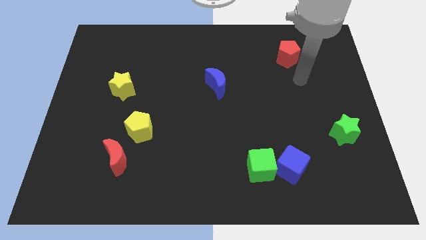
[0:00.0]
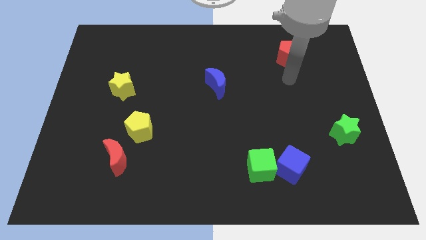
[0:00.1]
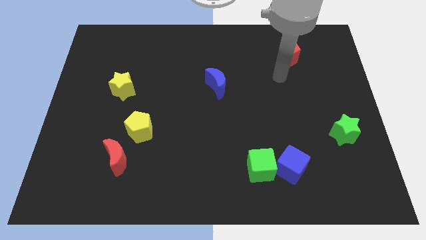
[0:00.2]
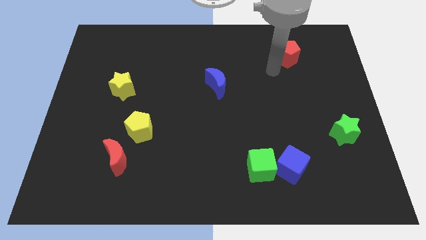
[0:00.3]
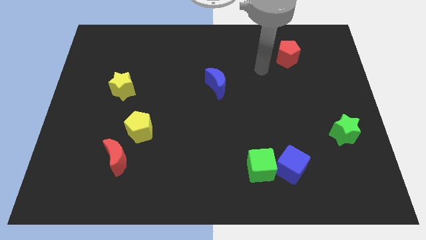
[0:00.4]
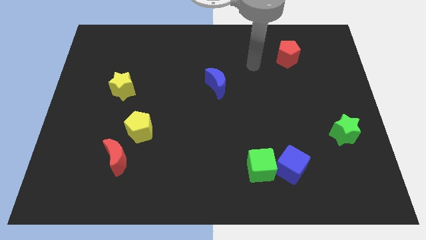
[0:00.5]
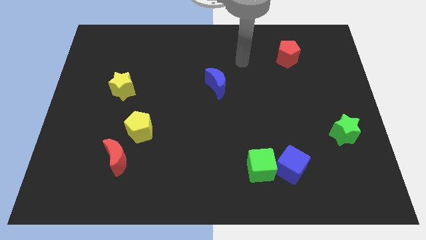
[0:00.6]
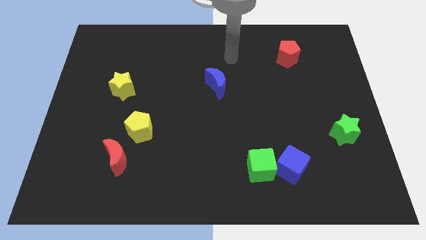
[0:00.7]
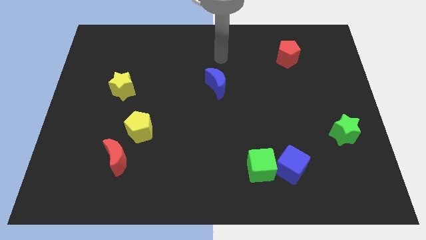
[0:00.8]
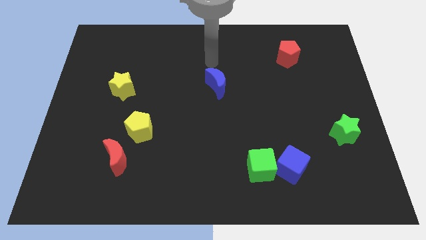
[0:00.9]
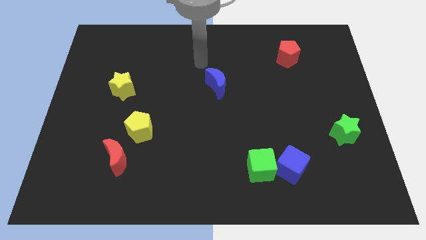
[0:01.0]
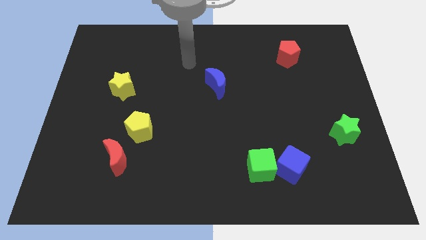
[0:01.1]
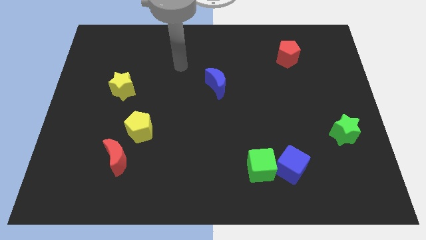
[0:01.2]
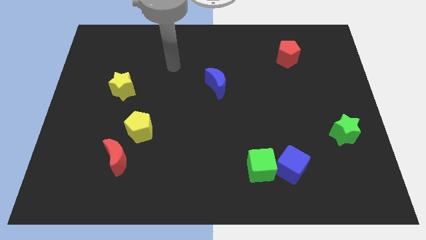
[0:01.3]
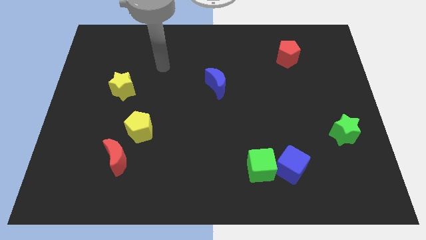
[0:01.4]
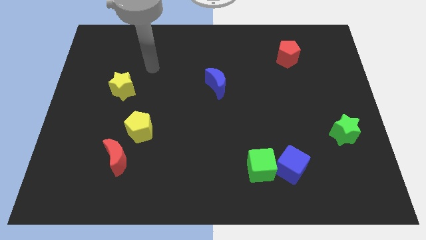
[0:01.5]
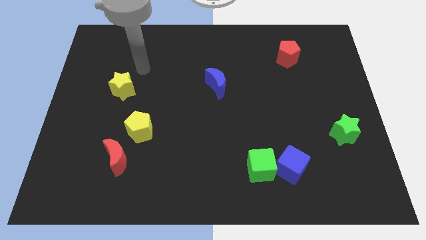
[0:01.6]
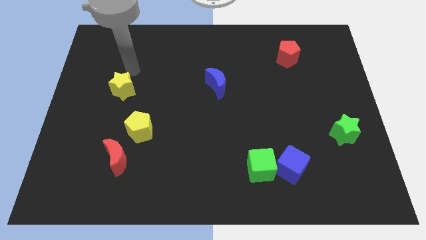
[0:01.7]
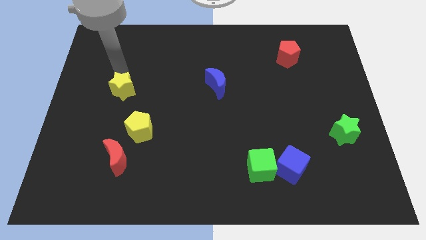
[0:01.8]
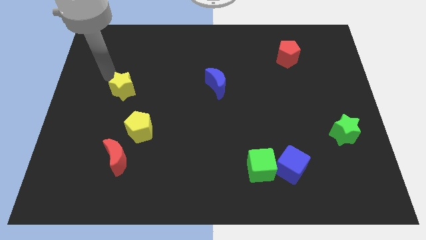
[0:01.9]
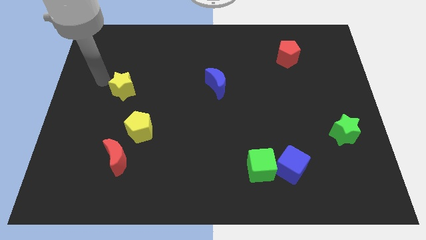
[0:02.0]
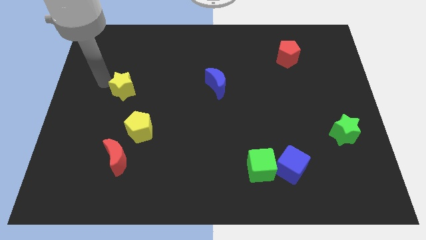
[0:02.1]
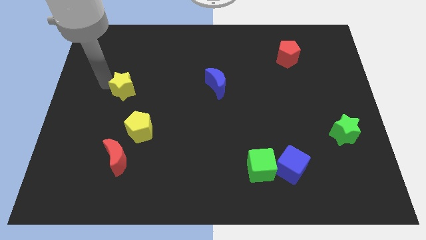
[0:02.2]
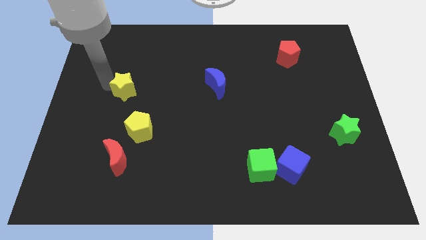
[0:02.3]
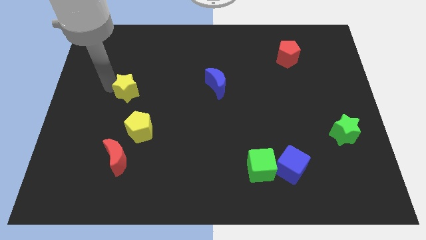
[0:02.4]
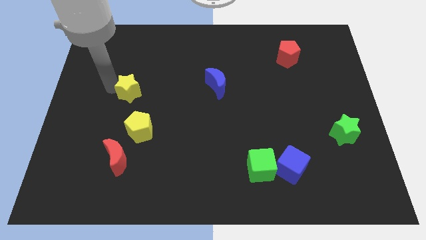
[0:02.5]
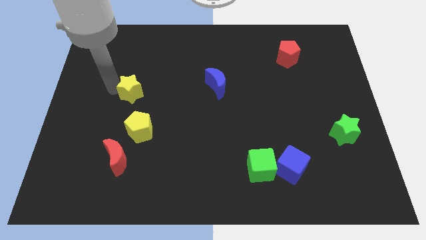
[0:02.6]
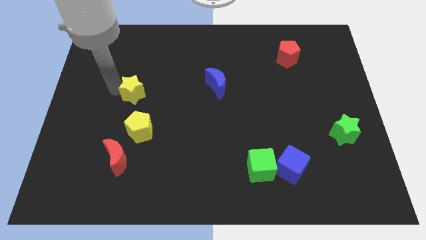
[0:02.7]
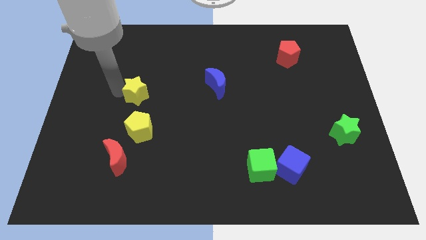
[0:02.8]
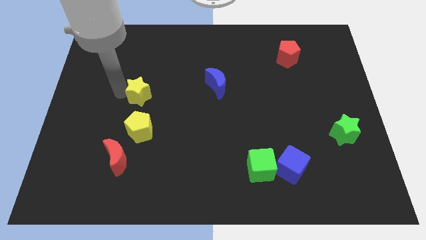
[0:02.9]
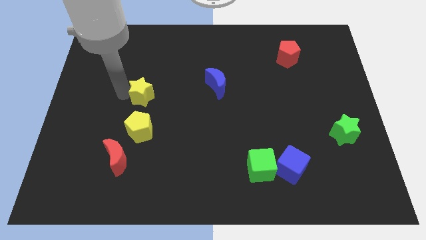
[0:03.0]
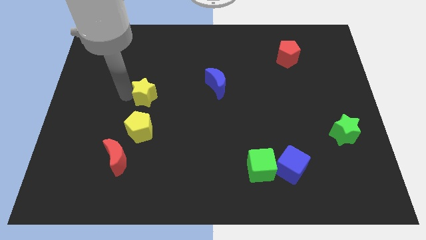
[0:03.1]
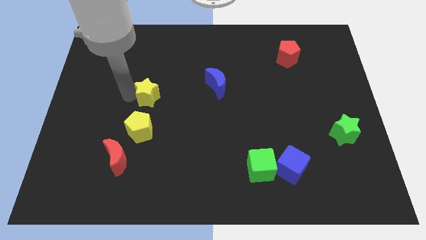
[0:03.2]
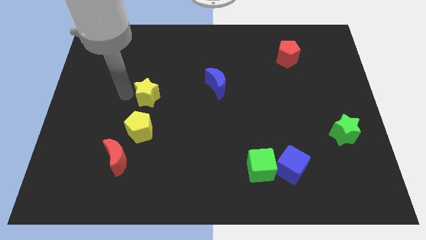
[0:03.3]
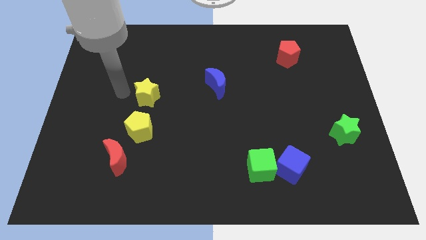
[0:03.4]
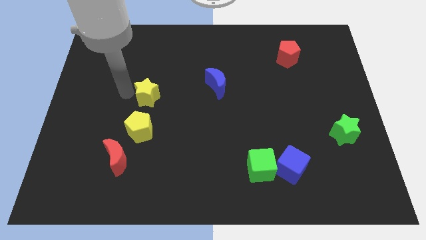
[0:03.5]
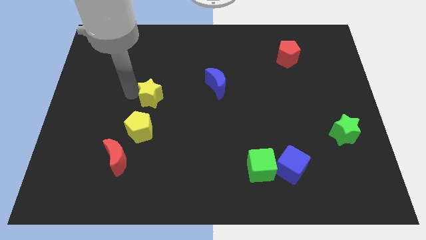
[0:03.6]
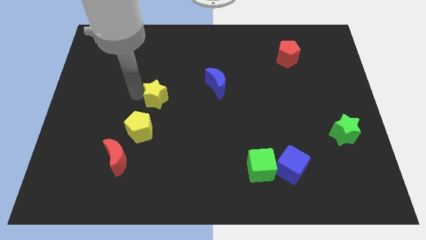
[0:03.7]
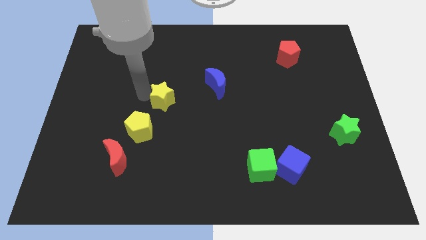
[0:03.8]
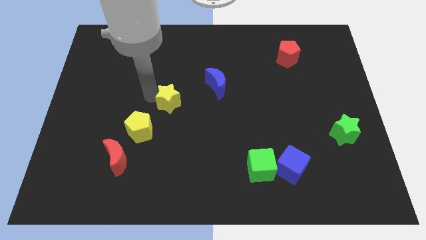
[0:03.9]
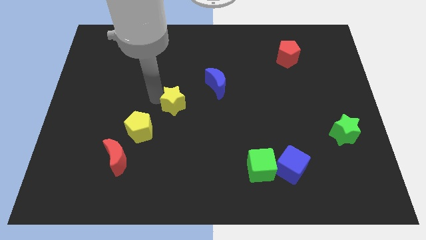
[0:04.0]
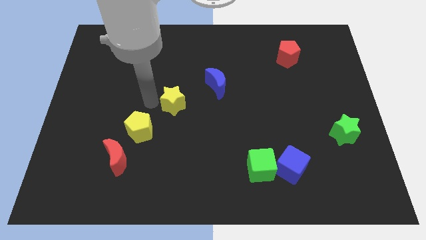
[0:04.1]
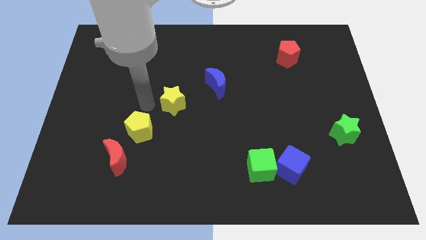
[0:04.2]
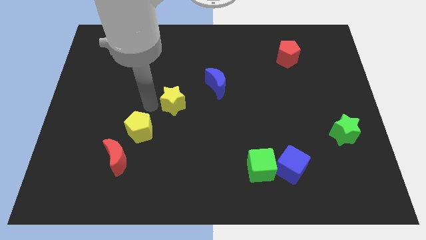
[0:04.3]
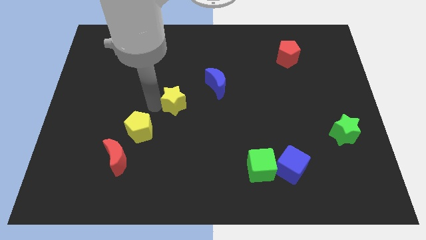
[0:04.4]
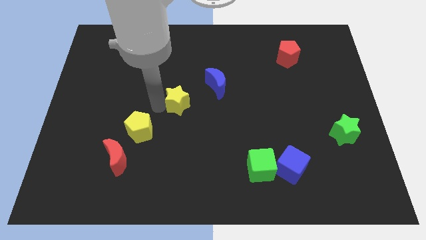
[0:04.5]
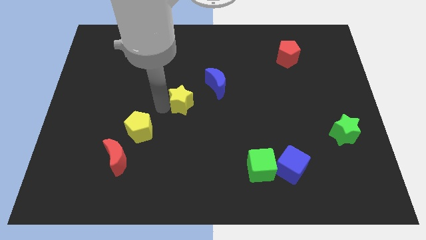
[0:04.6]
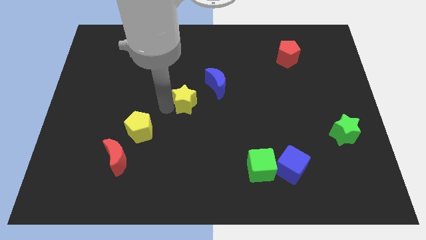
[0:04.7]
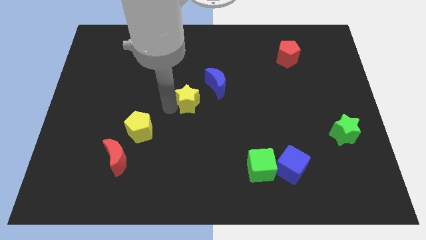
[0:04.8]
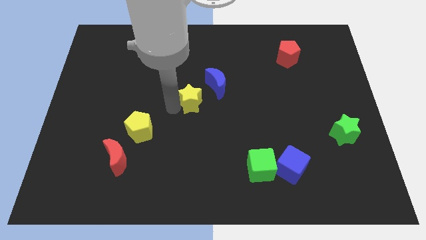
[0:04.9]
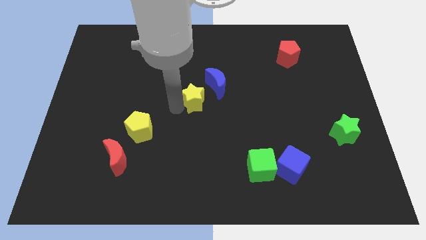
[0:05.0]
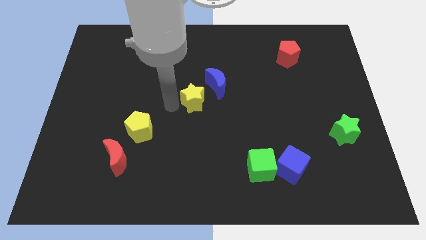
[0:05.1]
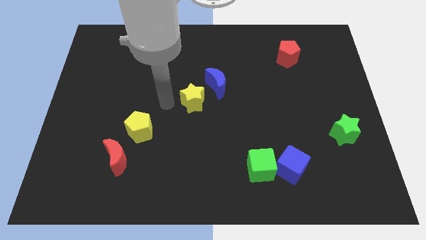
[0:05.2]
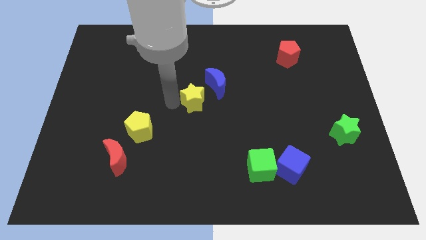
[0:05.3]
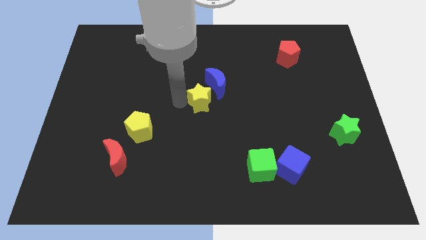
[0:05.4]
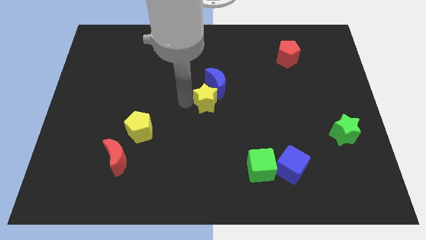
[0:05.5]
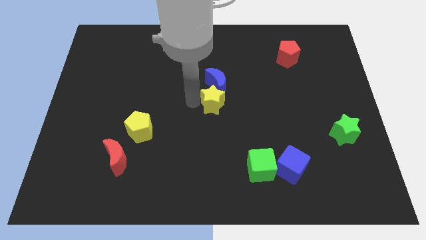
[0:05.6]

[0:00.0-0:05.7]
push the yellow star to the right

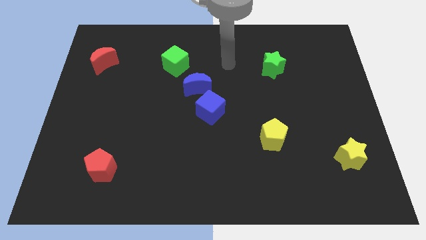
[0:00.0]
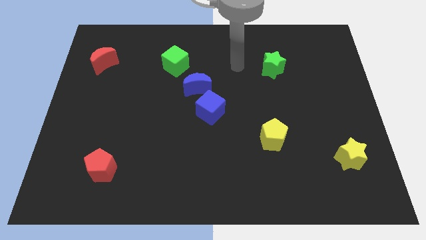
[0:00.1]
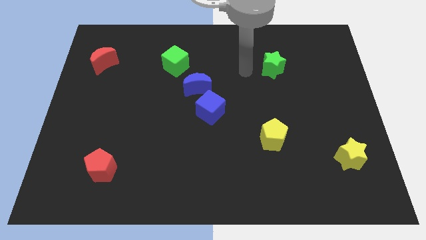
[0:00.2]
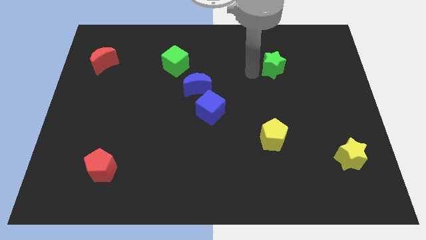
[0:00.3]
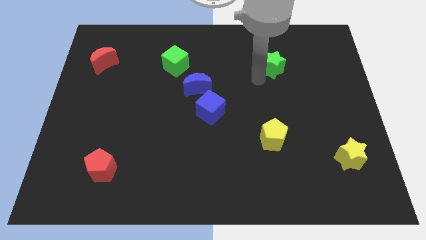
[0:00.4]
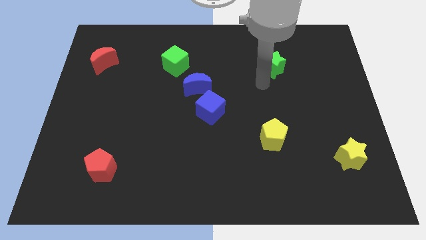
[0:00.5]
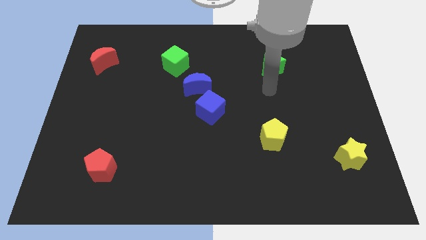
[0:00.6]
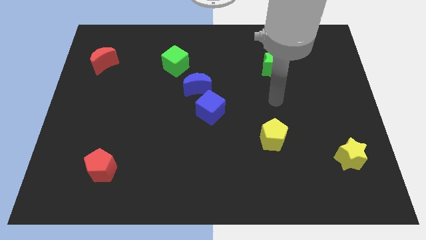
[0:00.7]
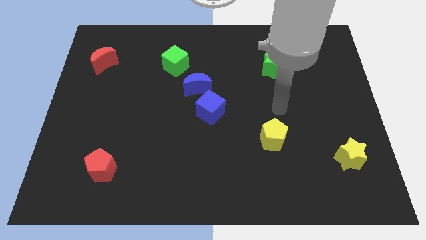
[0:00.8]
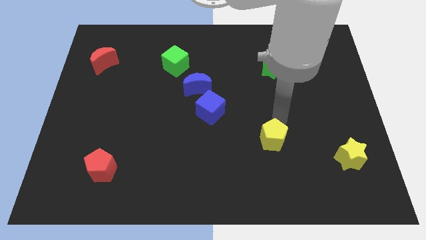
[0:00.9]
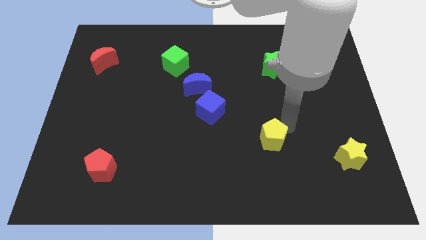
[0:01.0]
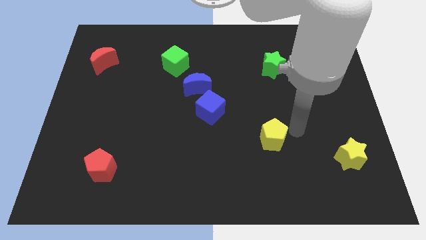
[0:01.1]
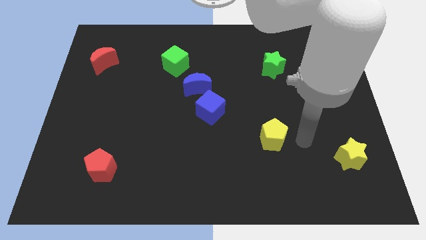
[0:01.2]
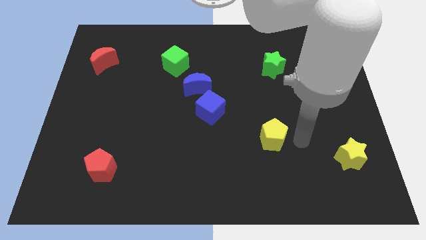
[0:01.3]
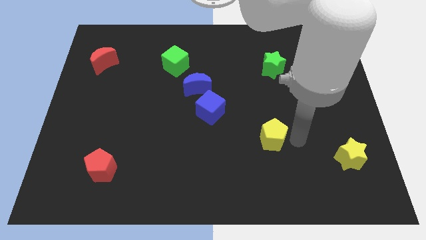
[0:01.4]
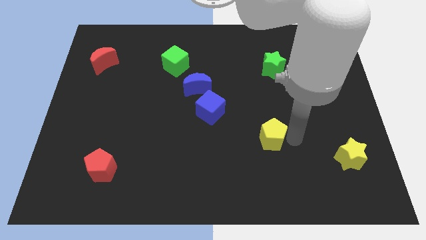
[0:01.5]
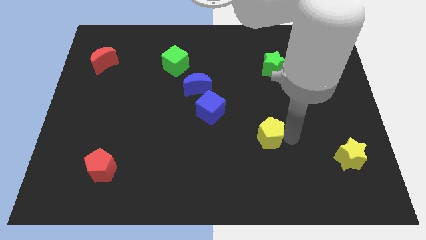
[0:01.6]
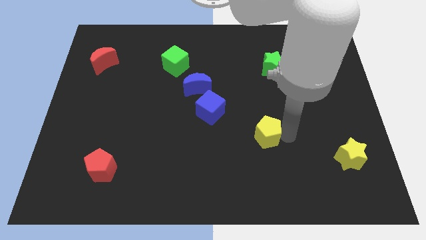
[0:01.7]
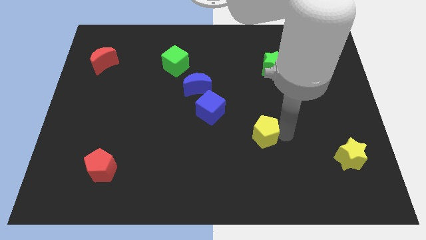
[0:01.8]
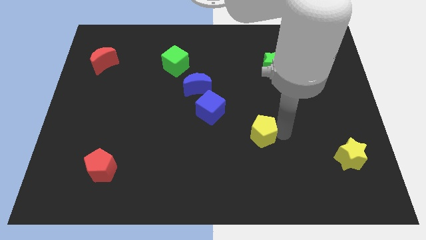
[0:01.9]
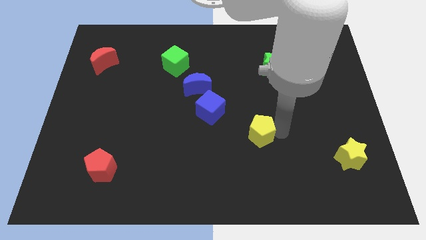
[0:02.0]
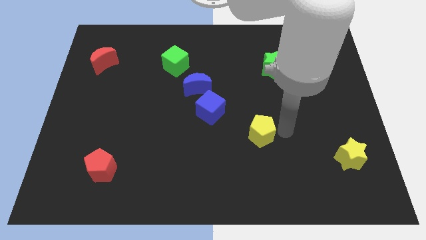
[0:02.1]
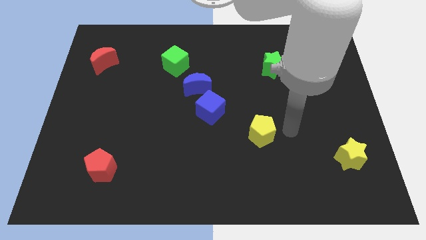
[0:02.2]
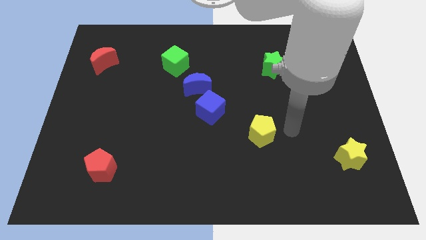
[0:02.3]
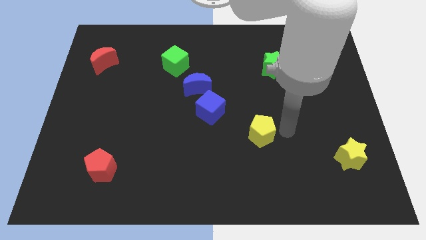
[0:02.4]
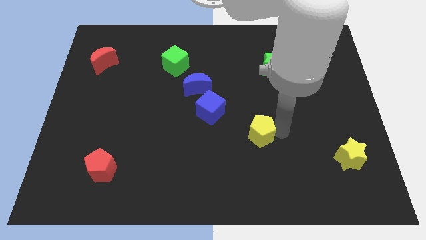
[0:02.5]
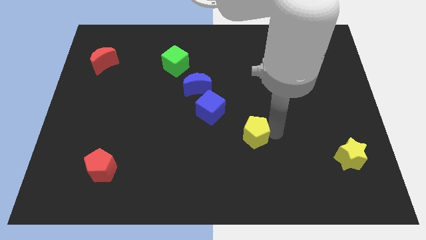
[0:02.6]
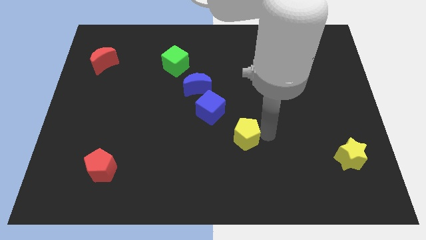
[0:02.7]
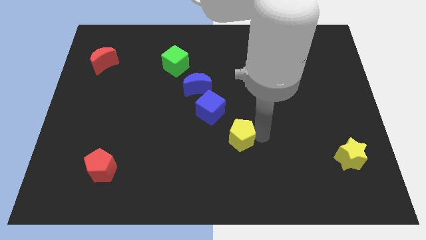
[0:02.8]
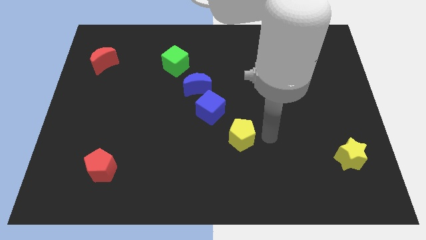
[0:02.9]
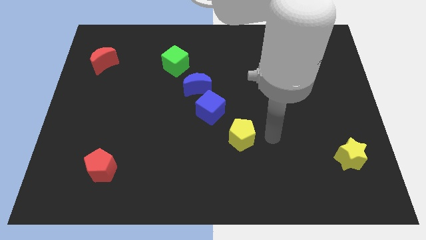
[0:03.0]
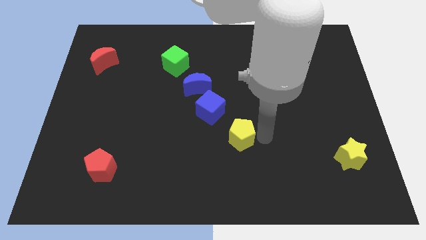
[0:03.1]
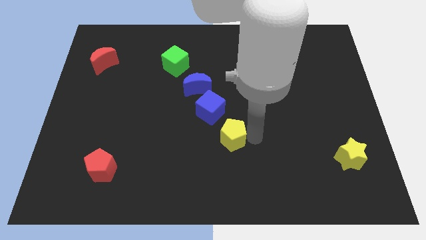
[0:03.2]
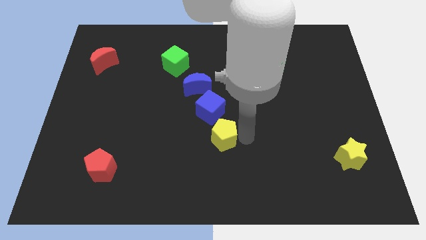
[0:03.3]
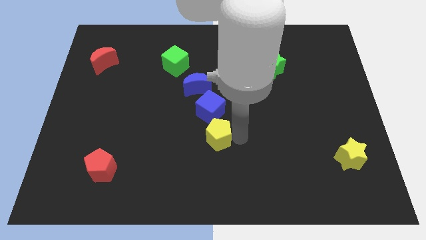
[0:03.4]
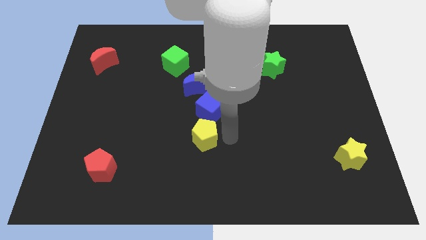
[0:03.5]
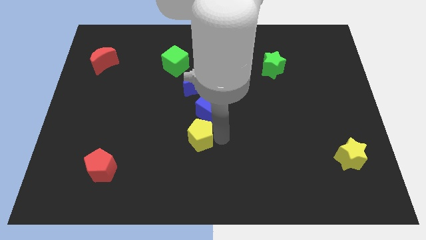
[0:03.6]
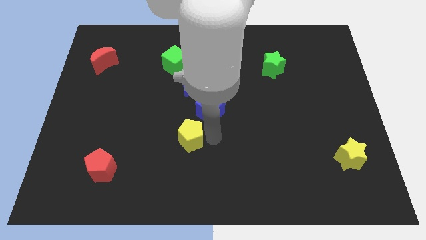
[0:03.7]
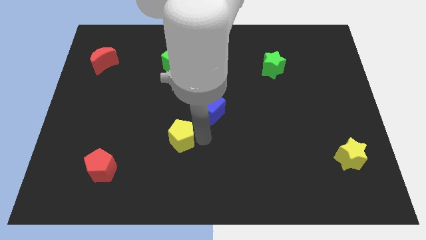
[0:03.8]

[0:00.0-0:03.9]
push the yellow pentagon left
